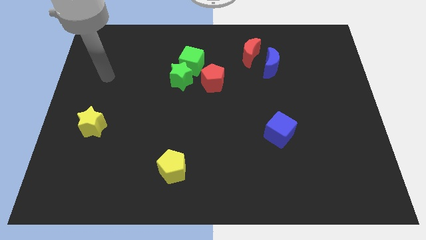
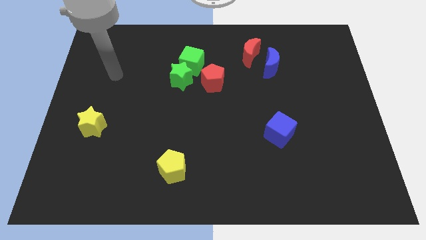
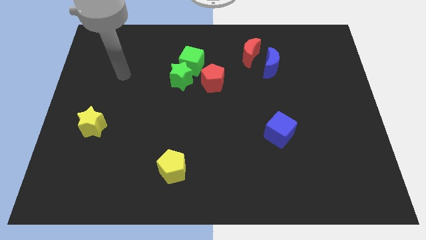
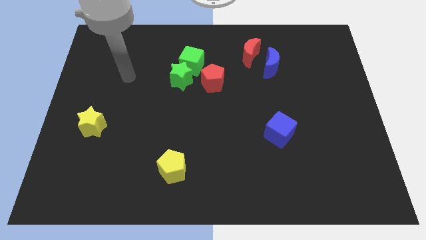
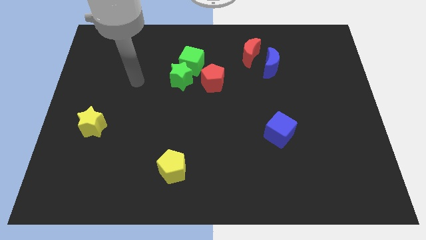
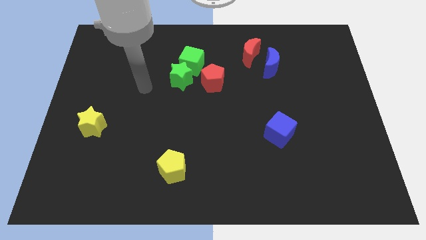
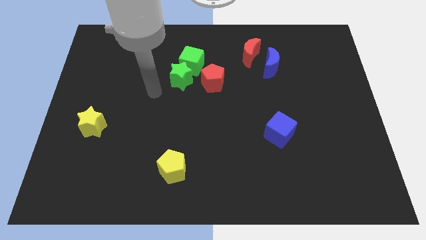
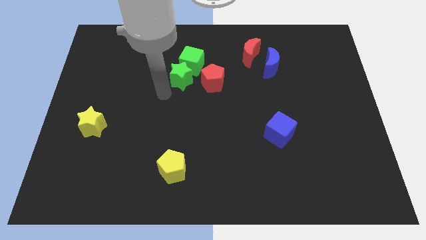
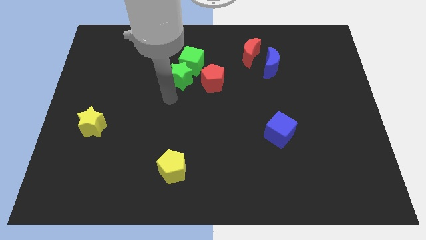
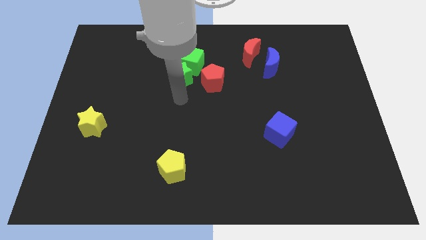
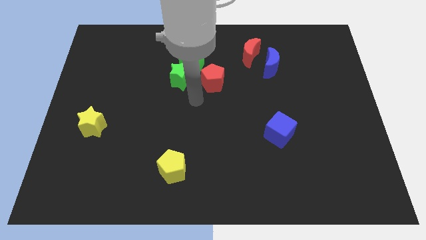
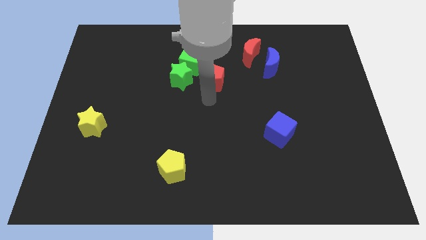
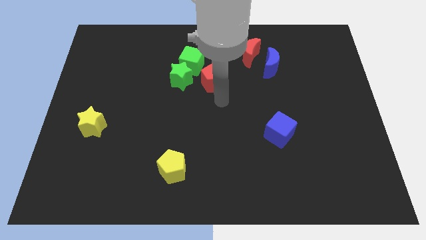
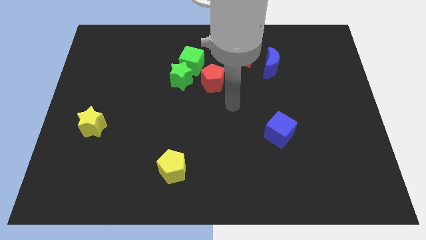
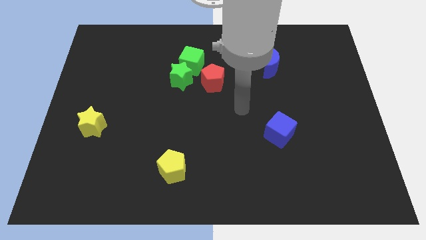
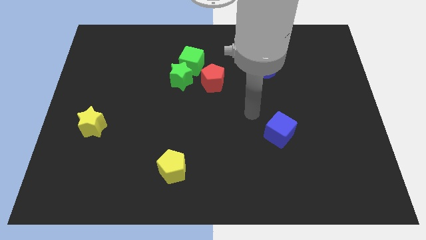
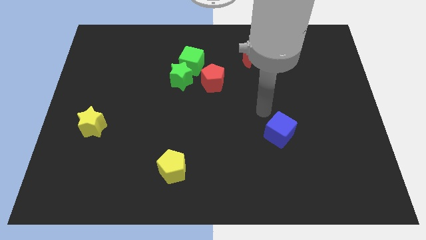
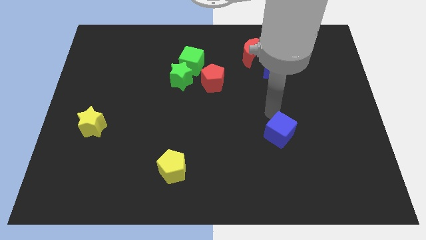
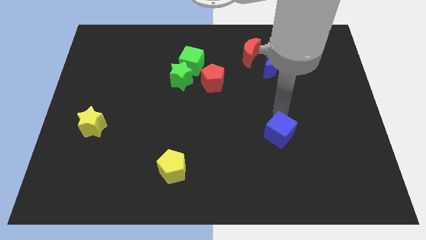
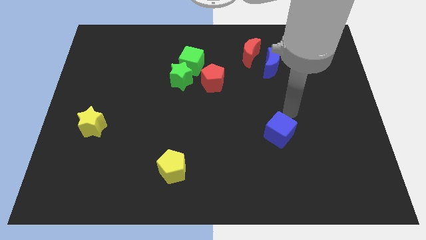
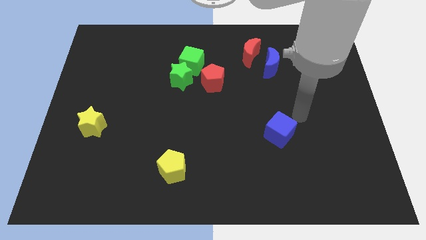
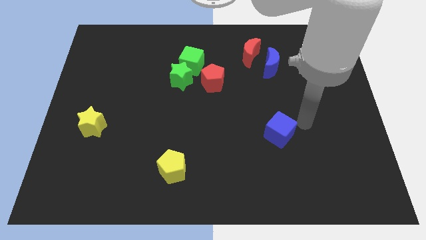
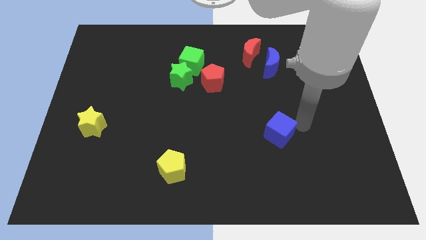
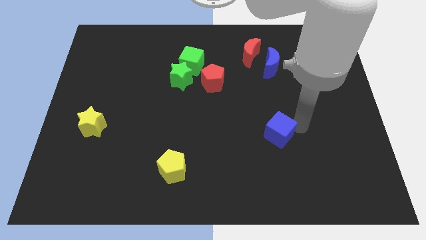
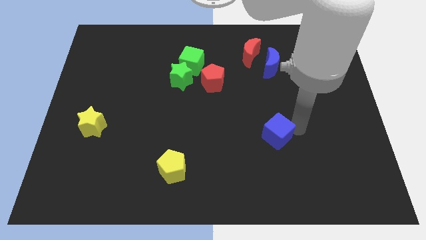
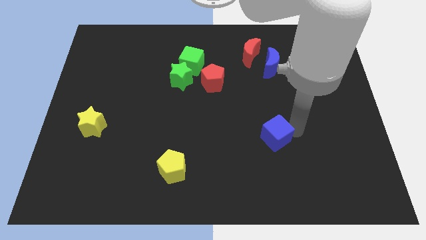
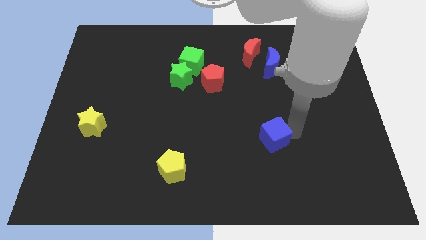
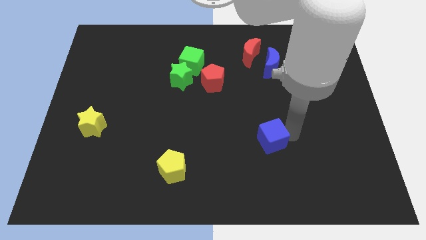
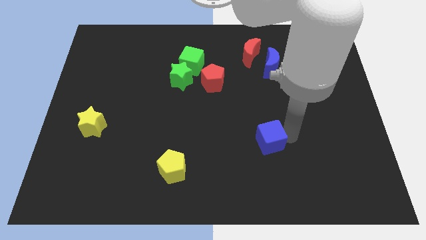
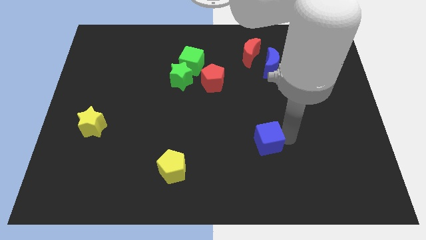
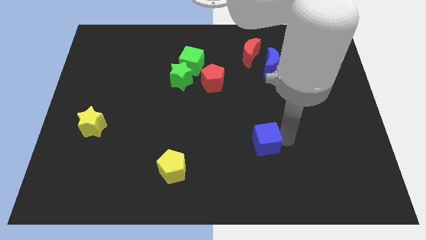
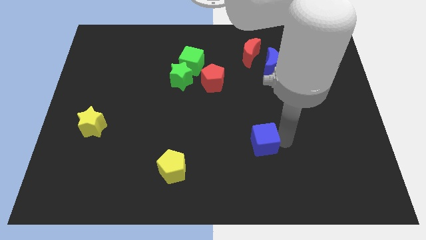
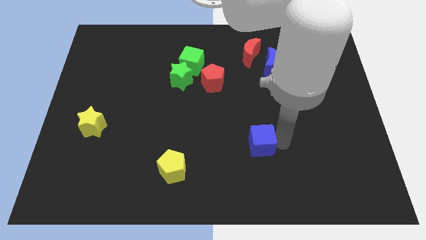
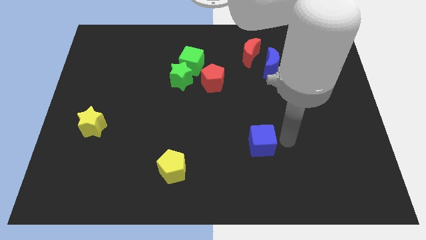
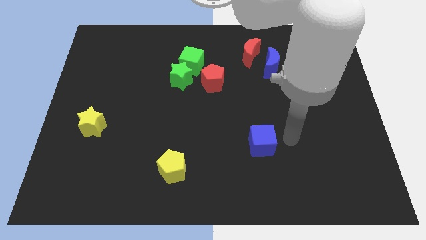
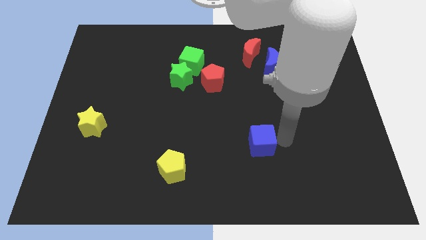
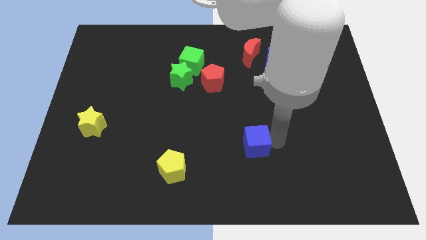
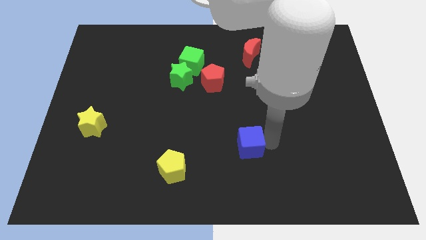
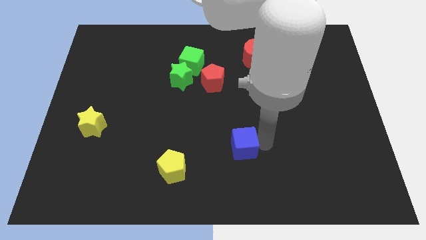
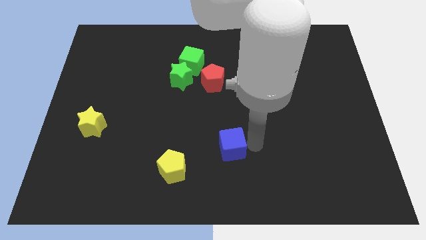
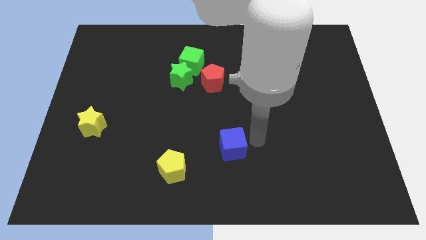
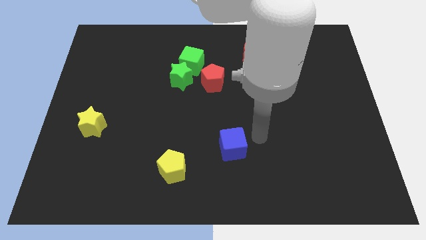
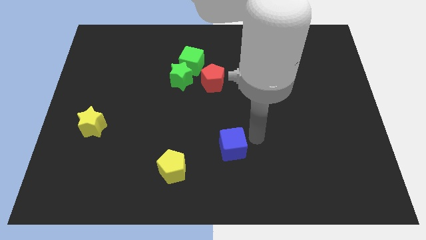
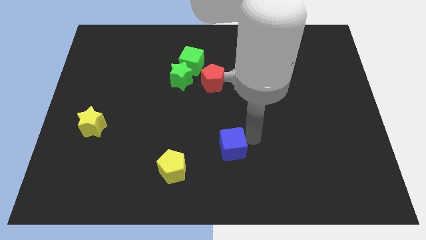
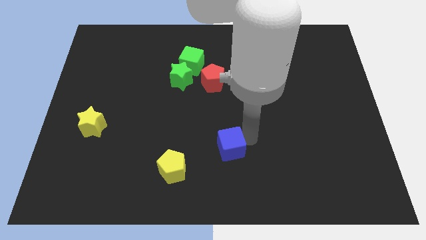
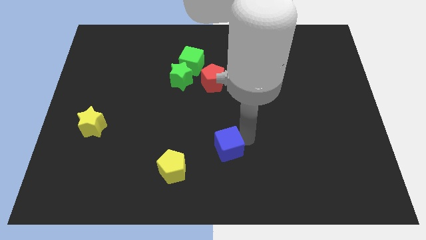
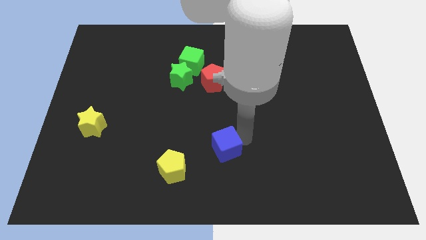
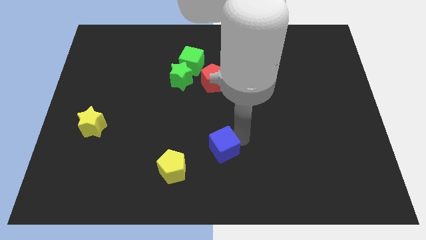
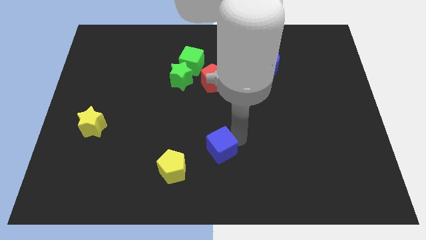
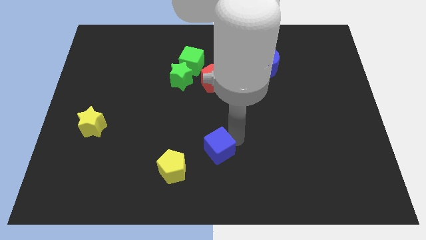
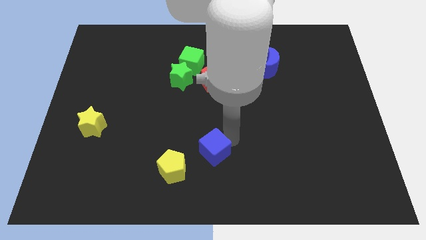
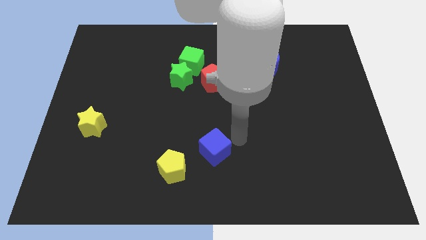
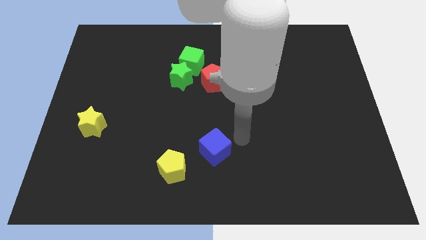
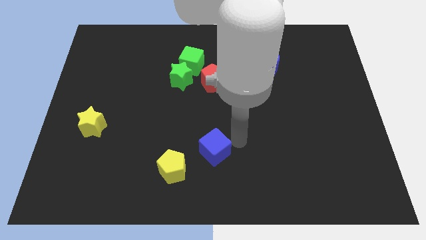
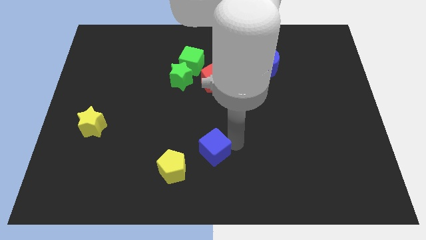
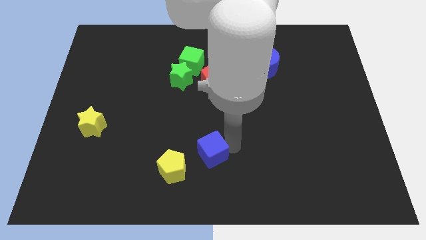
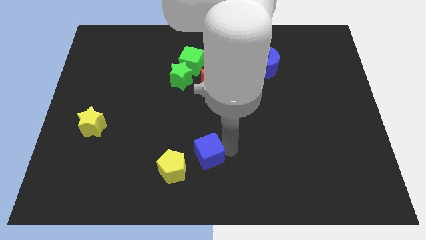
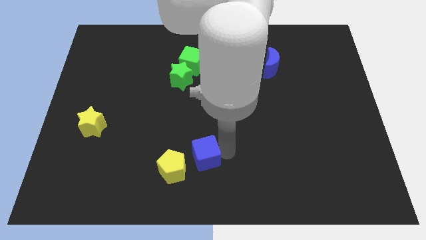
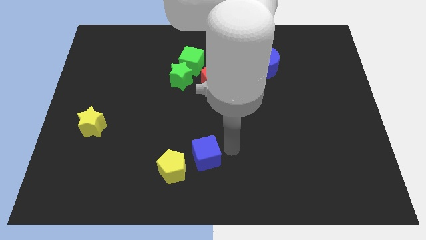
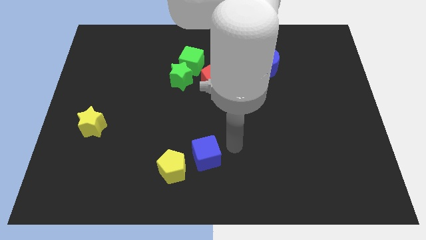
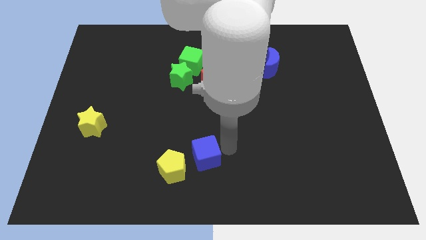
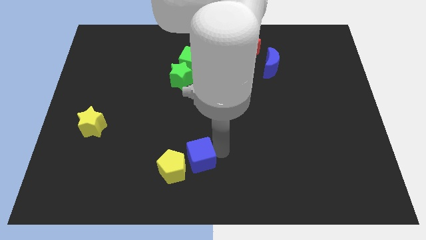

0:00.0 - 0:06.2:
move the blue cube next to the yellow pentagon

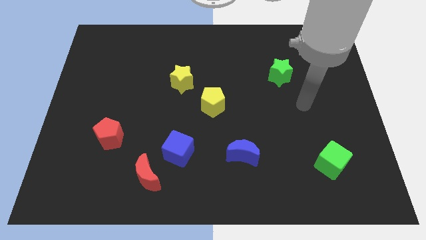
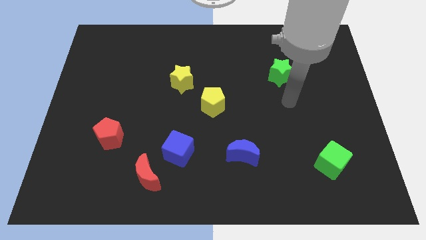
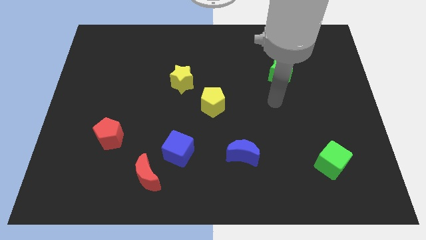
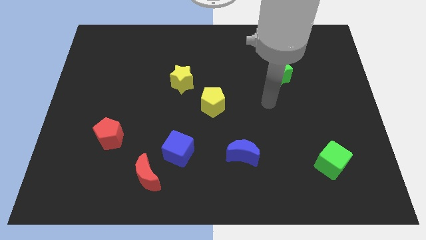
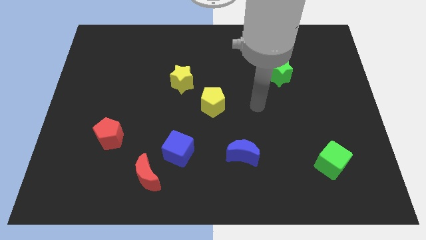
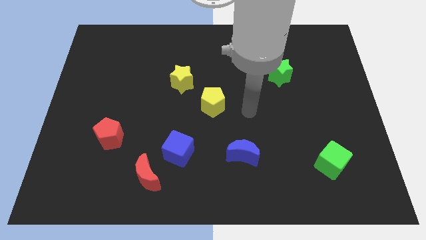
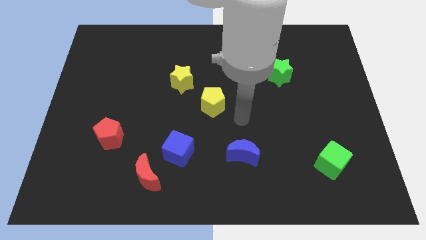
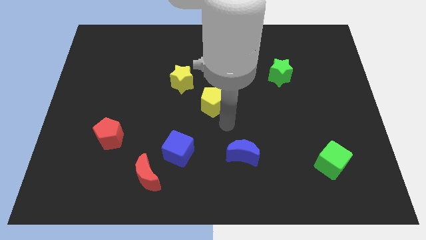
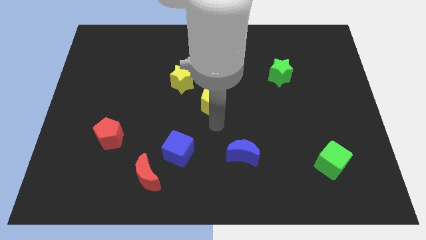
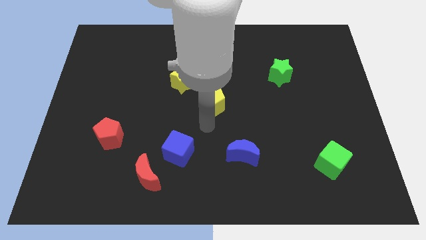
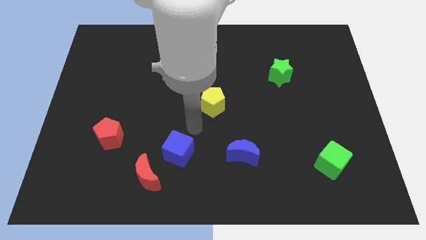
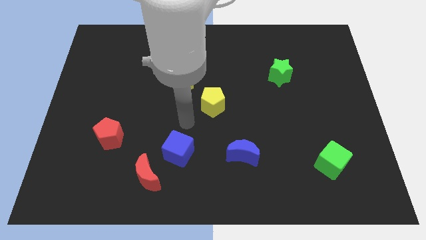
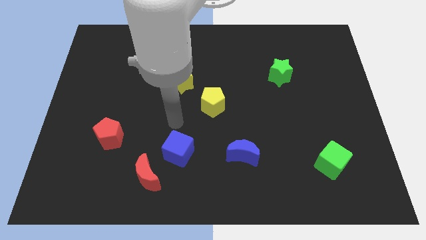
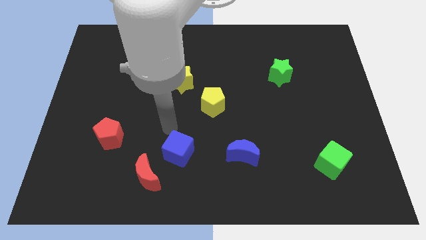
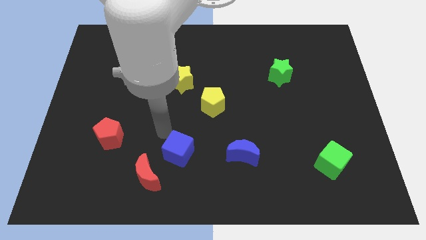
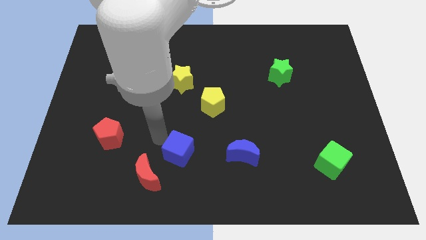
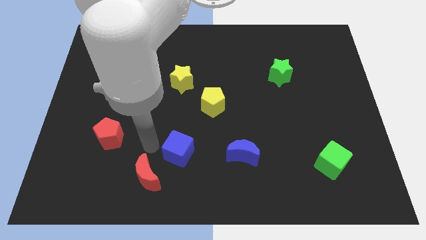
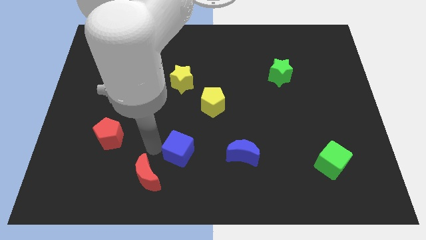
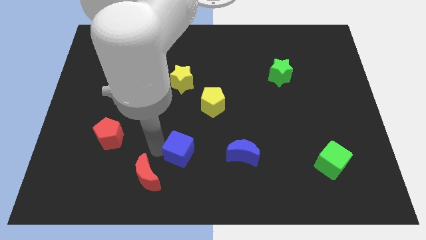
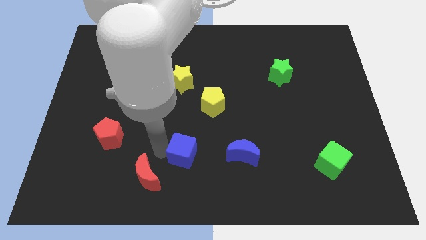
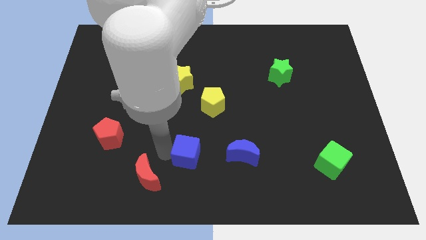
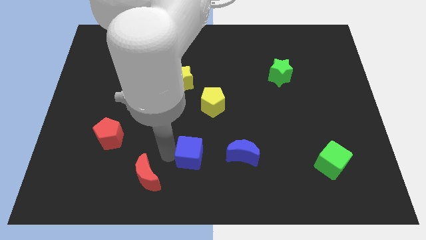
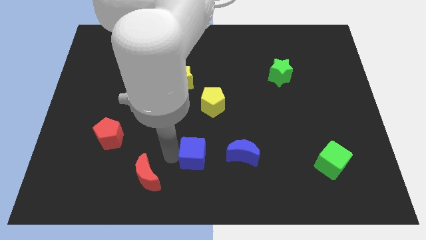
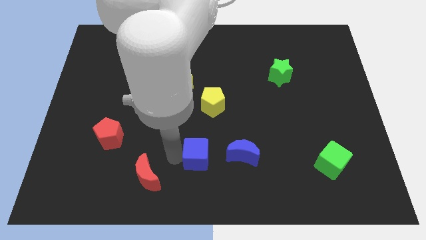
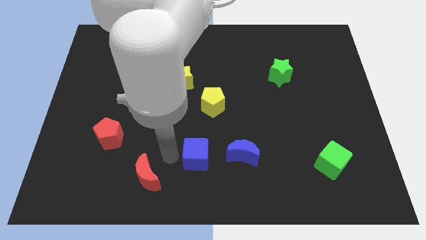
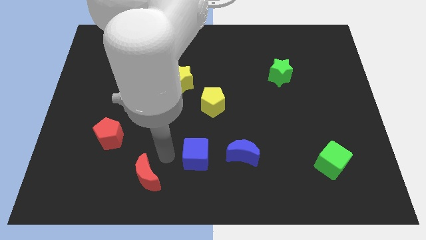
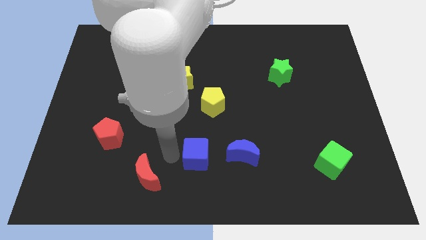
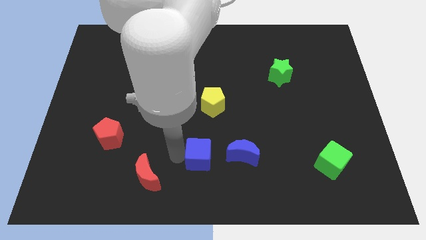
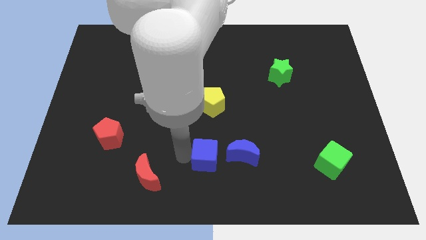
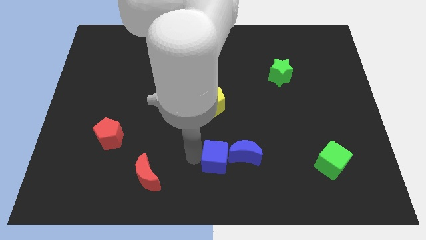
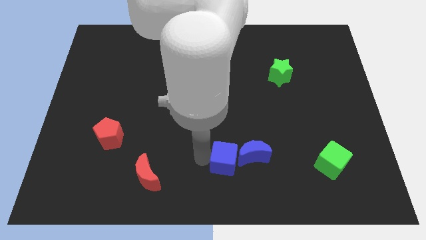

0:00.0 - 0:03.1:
push the blue cube towards the blue moon
